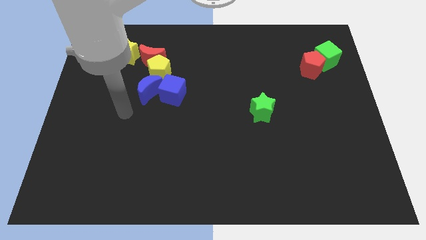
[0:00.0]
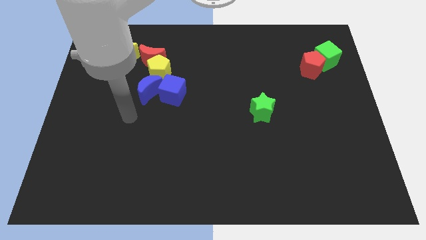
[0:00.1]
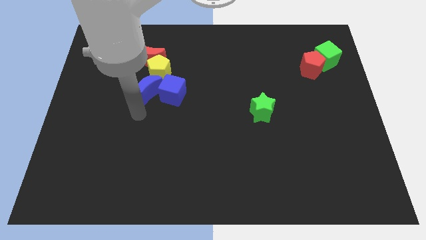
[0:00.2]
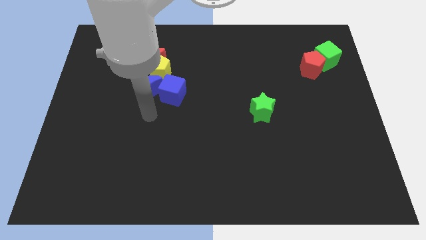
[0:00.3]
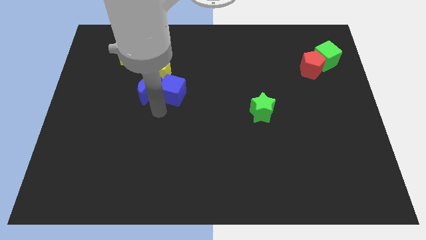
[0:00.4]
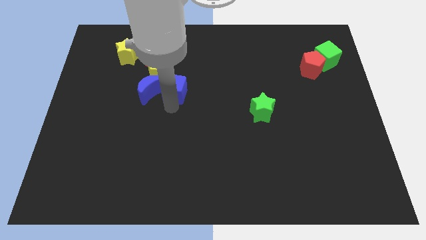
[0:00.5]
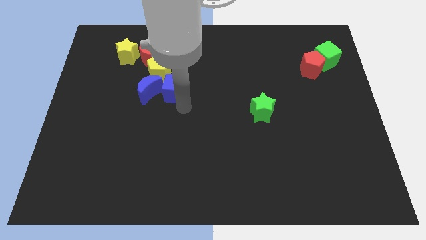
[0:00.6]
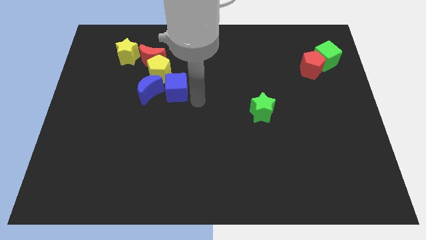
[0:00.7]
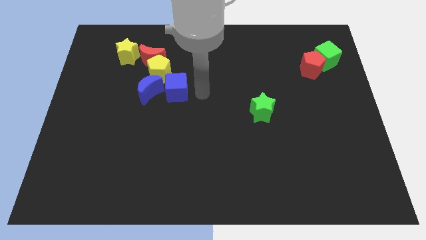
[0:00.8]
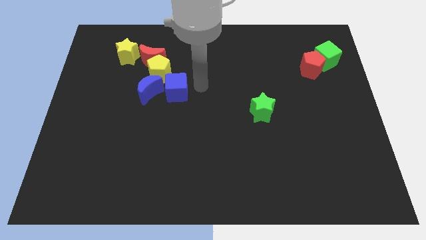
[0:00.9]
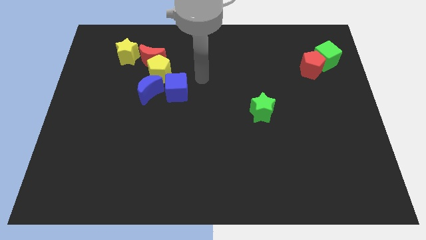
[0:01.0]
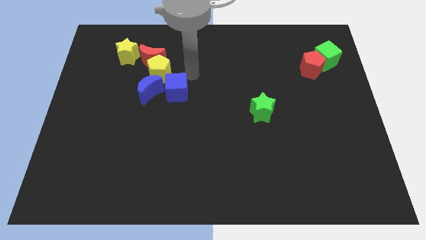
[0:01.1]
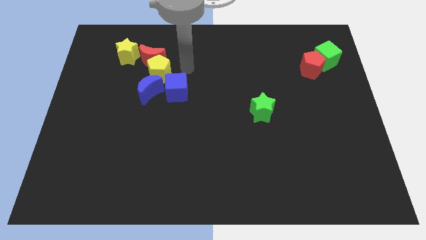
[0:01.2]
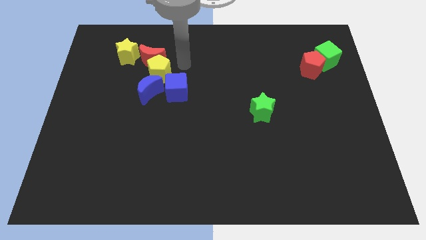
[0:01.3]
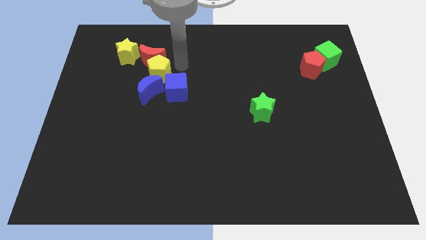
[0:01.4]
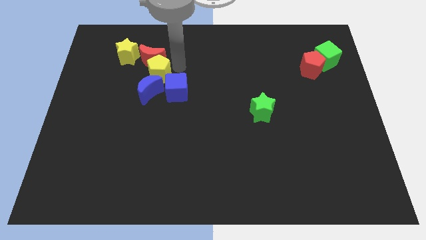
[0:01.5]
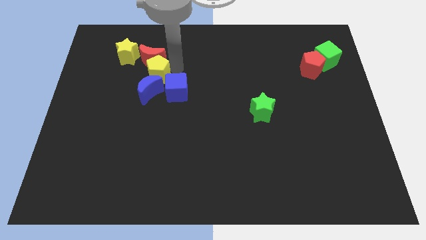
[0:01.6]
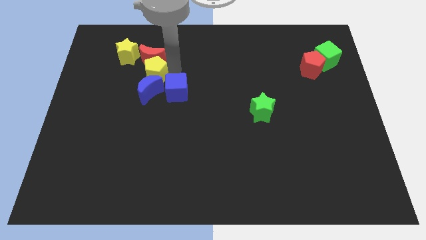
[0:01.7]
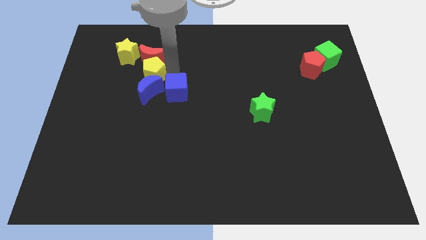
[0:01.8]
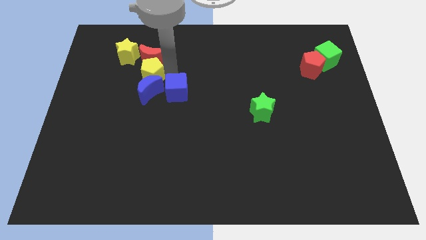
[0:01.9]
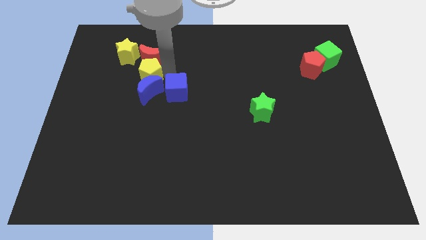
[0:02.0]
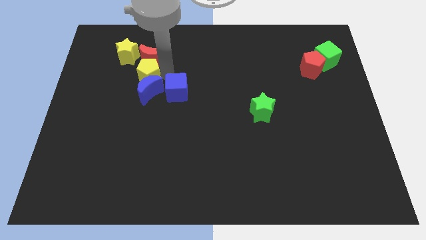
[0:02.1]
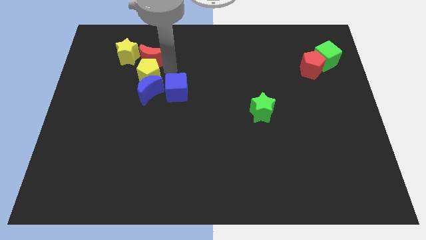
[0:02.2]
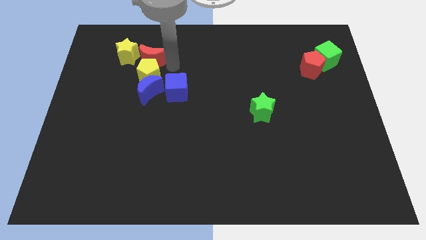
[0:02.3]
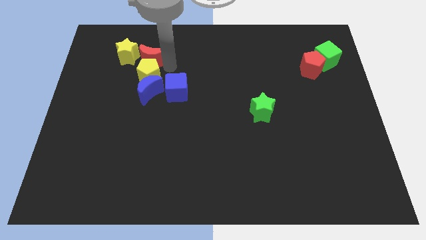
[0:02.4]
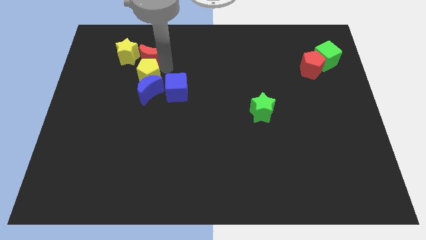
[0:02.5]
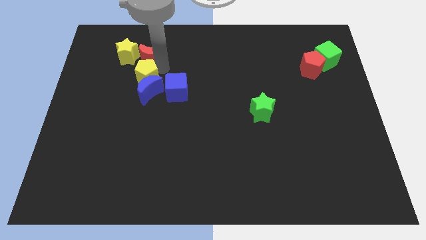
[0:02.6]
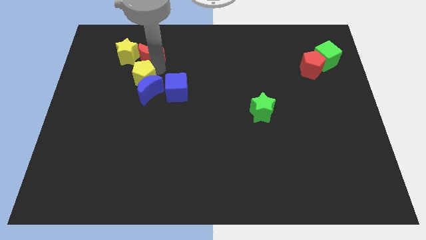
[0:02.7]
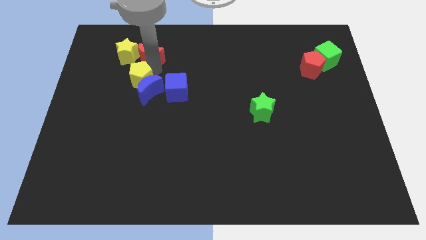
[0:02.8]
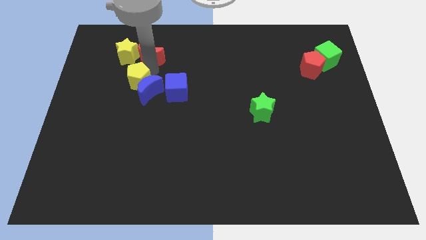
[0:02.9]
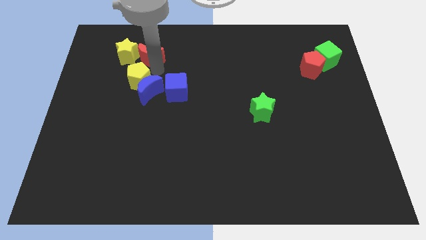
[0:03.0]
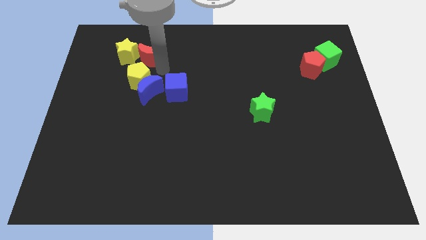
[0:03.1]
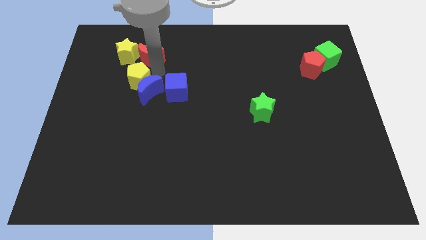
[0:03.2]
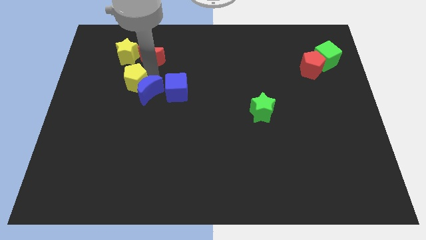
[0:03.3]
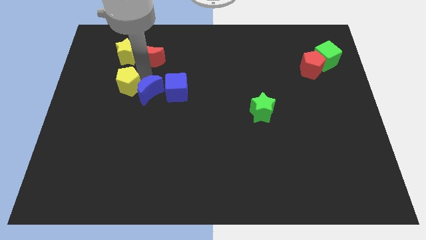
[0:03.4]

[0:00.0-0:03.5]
slightly move the yellow pentagon downwards and left

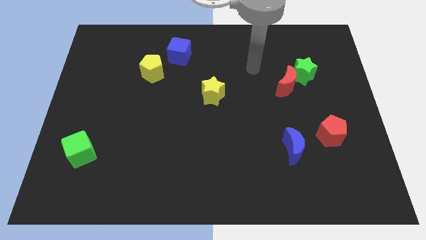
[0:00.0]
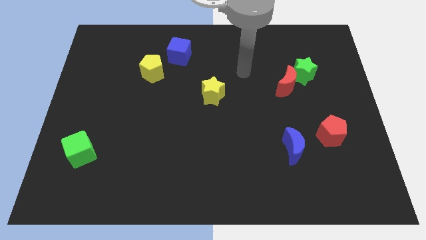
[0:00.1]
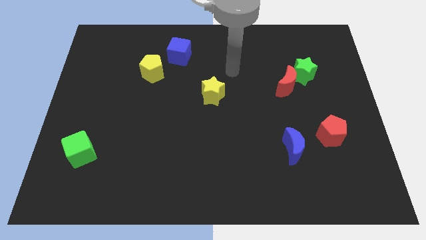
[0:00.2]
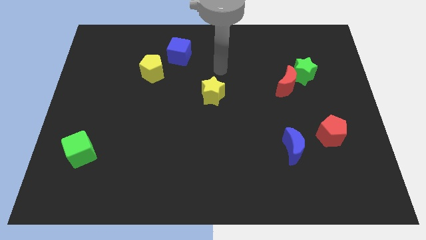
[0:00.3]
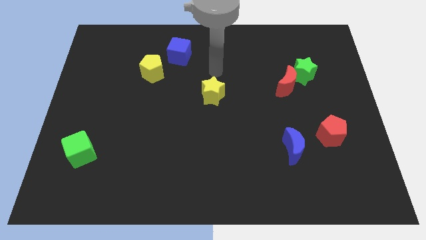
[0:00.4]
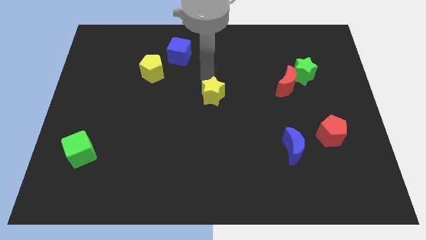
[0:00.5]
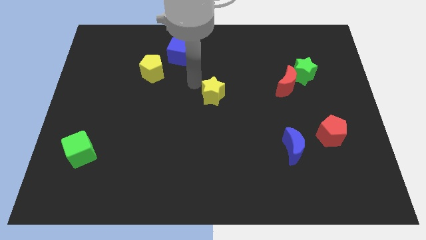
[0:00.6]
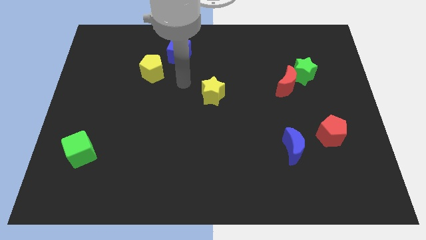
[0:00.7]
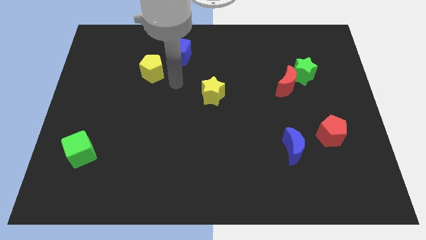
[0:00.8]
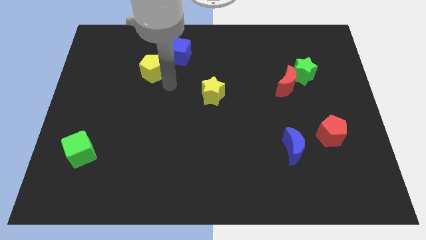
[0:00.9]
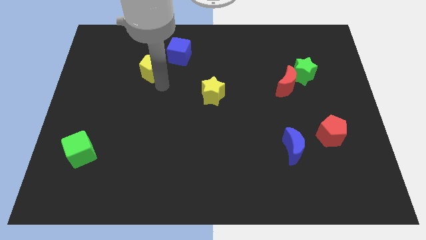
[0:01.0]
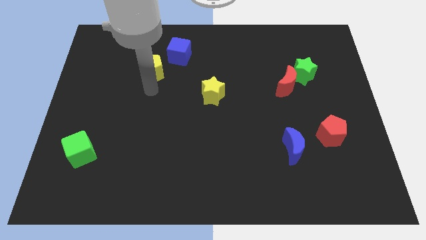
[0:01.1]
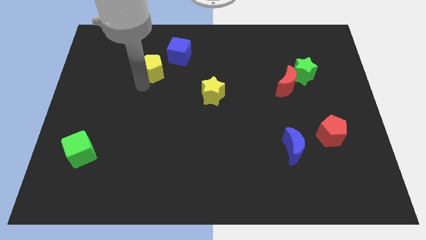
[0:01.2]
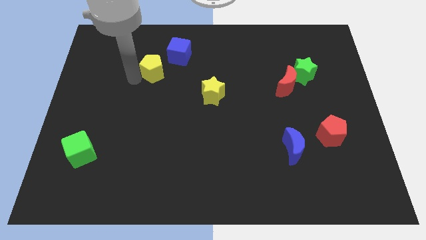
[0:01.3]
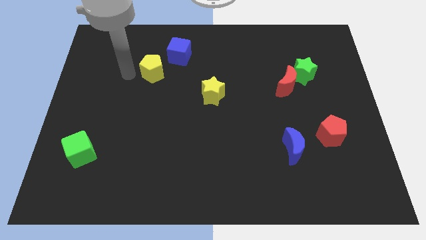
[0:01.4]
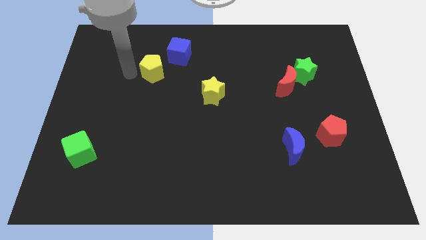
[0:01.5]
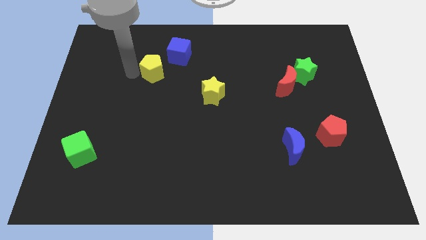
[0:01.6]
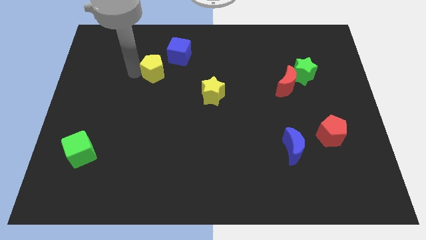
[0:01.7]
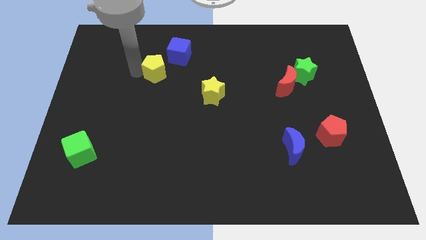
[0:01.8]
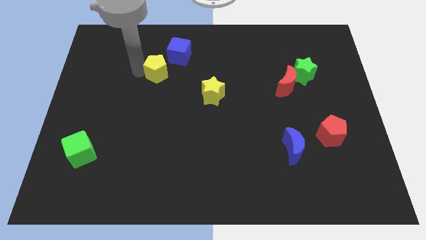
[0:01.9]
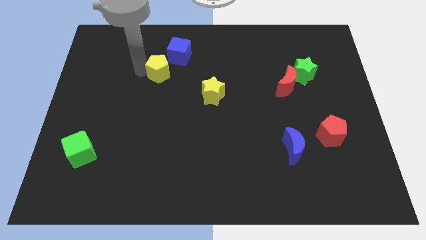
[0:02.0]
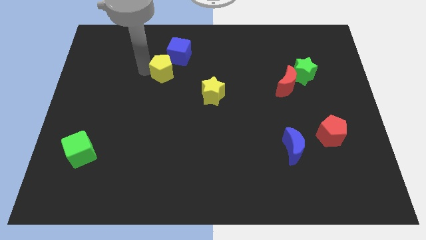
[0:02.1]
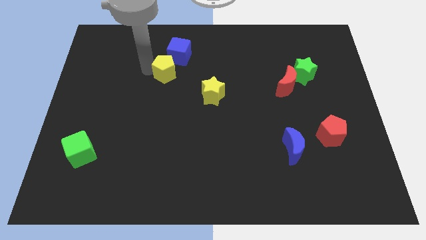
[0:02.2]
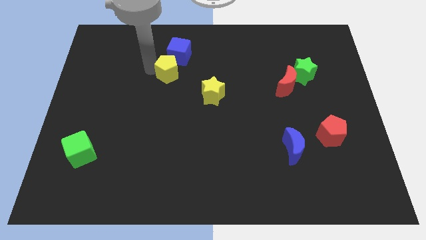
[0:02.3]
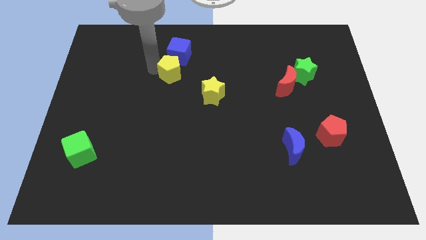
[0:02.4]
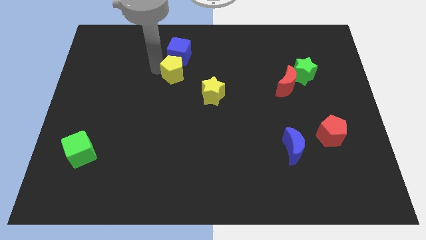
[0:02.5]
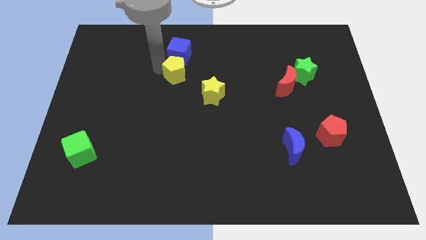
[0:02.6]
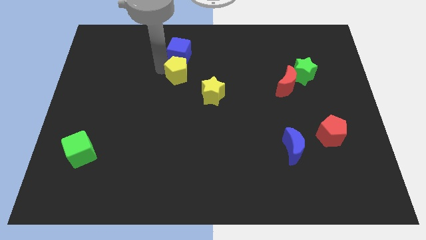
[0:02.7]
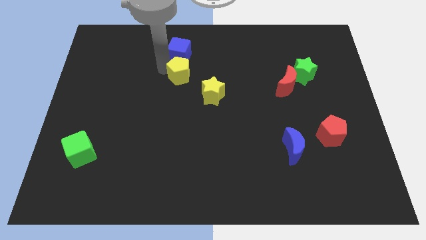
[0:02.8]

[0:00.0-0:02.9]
move the yellow pentagon somewhat right

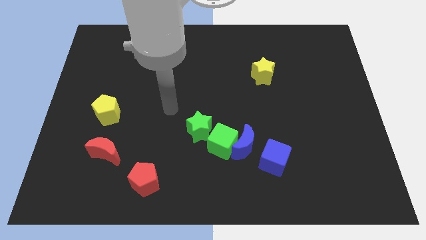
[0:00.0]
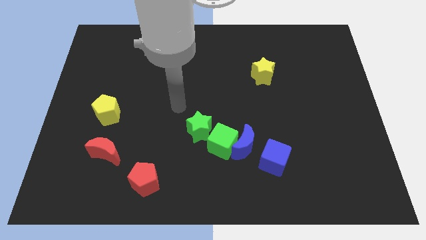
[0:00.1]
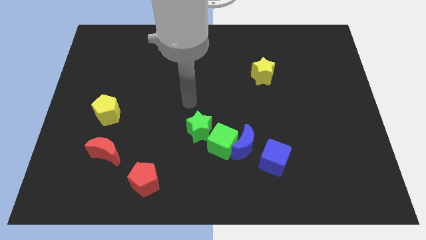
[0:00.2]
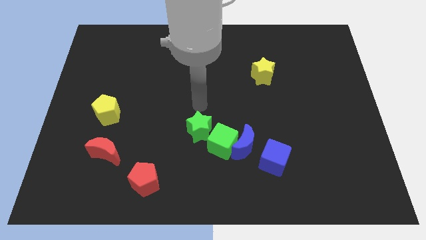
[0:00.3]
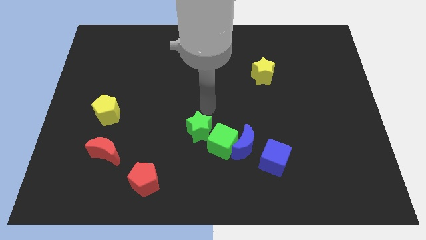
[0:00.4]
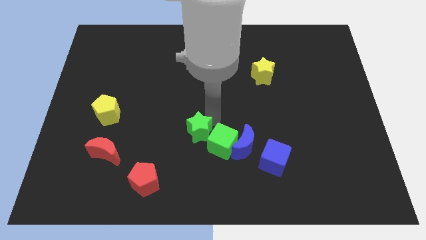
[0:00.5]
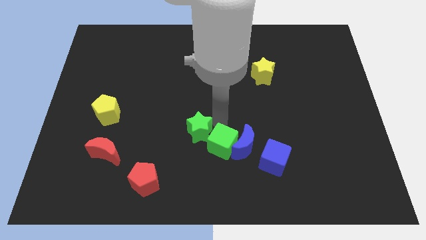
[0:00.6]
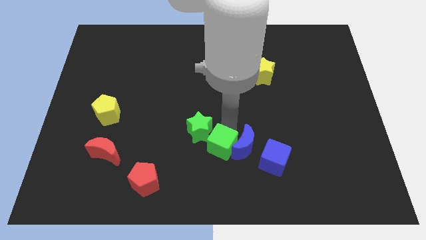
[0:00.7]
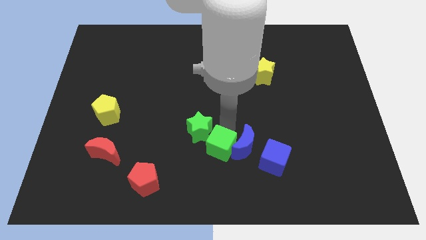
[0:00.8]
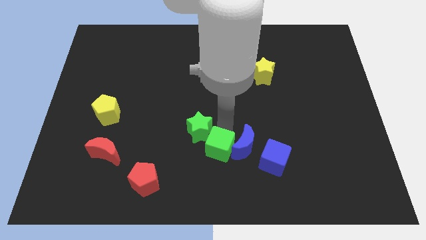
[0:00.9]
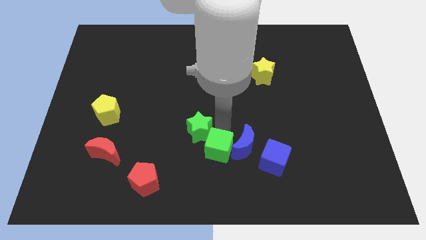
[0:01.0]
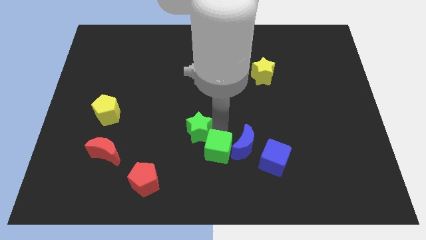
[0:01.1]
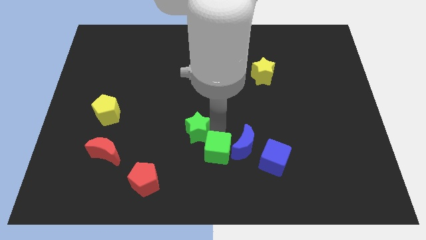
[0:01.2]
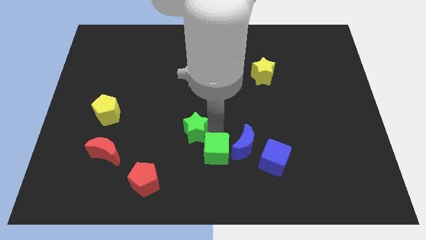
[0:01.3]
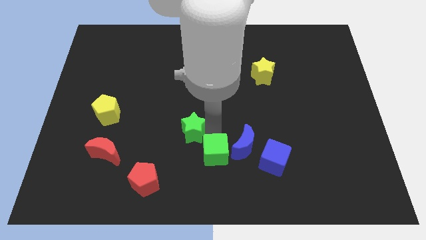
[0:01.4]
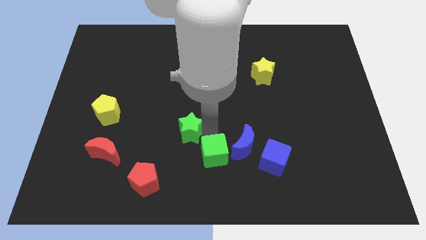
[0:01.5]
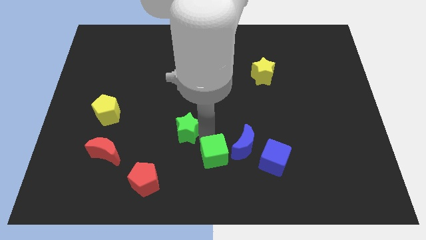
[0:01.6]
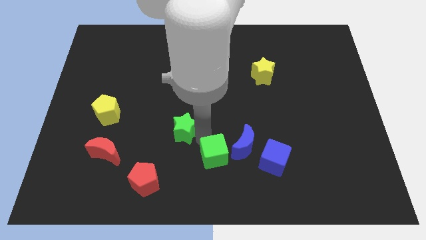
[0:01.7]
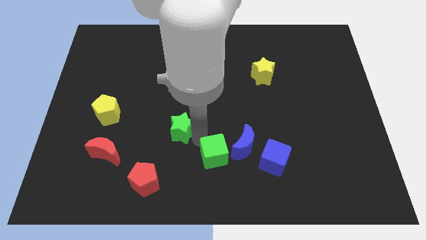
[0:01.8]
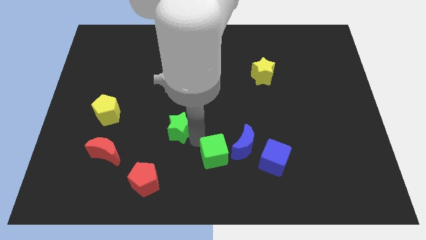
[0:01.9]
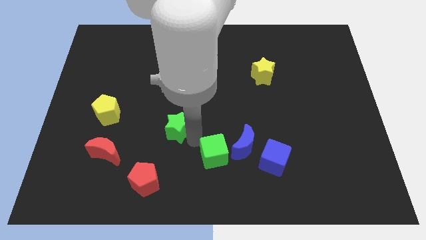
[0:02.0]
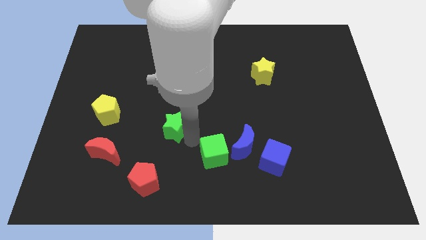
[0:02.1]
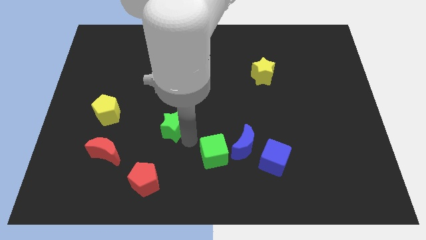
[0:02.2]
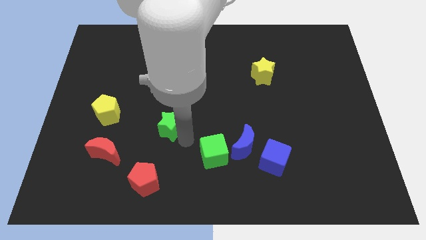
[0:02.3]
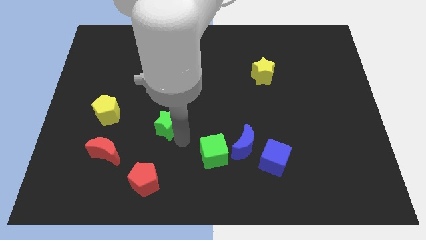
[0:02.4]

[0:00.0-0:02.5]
slide the green star to the left somewhat
